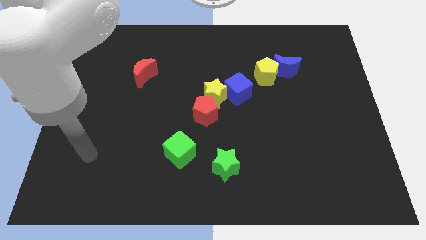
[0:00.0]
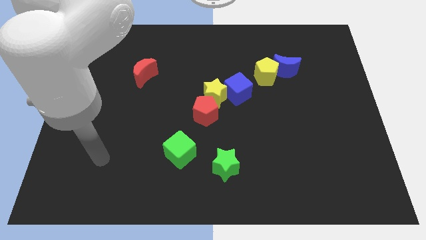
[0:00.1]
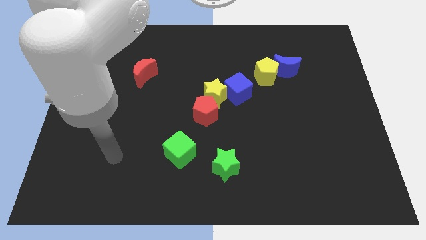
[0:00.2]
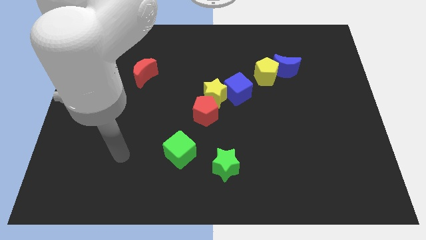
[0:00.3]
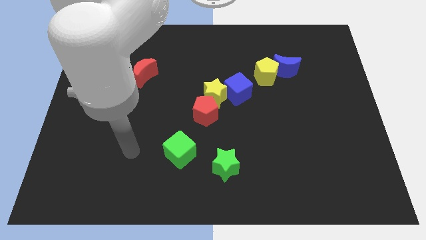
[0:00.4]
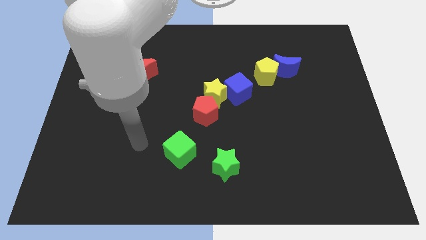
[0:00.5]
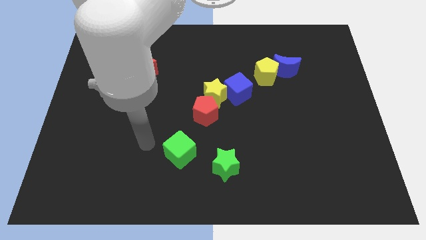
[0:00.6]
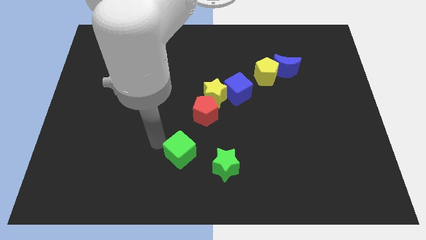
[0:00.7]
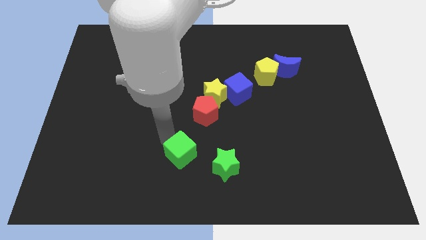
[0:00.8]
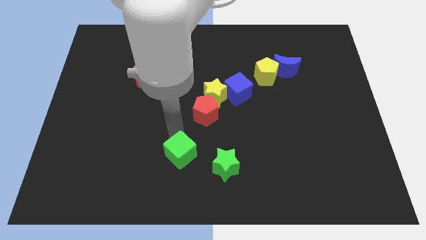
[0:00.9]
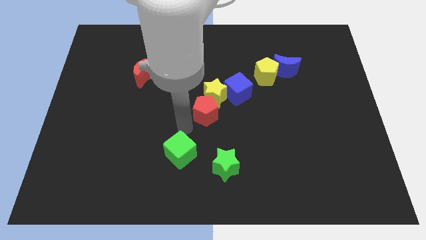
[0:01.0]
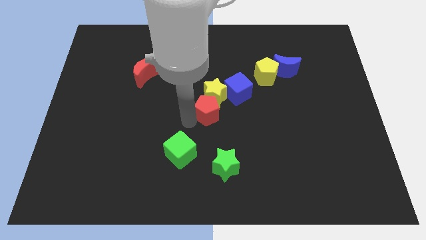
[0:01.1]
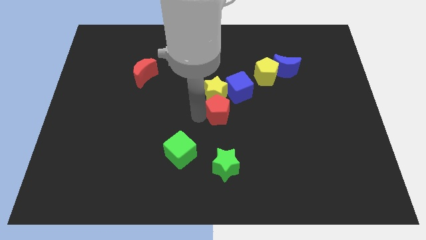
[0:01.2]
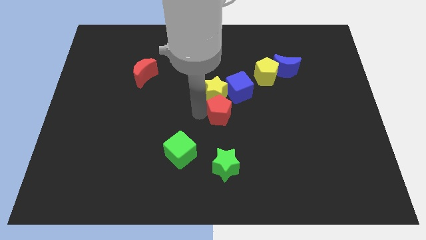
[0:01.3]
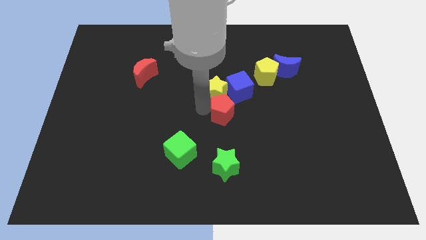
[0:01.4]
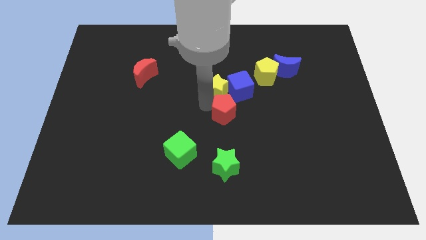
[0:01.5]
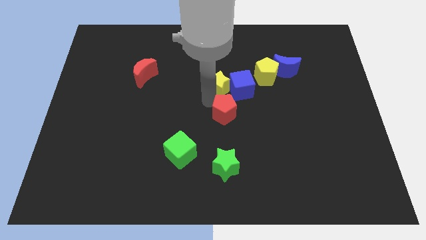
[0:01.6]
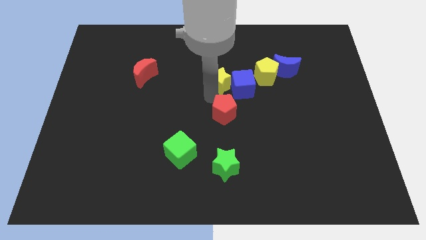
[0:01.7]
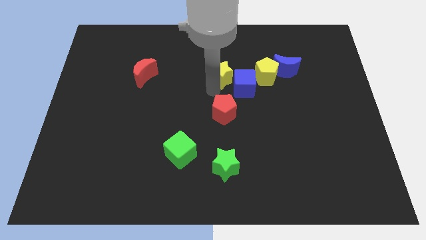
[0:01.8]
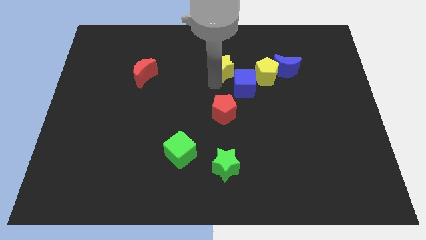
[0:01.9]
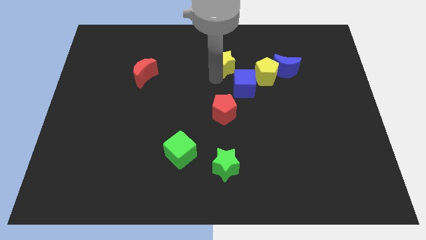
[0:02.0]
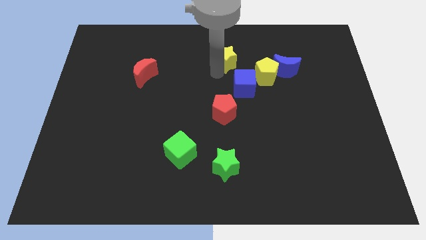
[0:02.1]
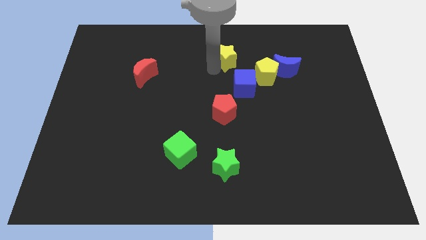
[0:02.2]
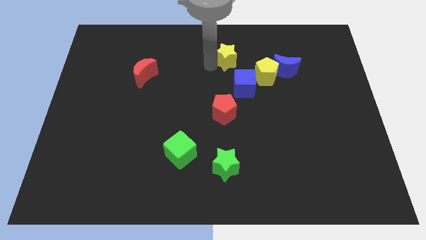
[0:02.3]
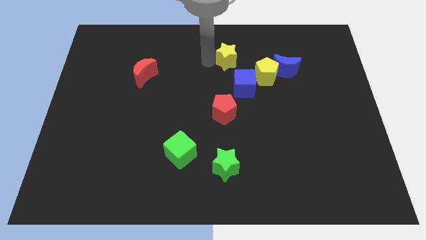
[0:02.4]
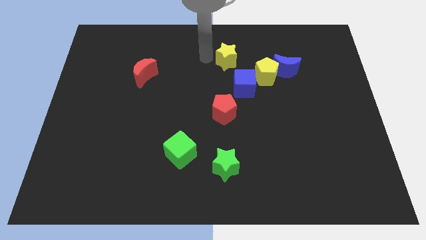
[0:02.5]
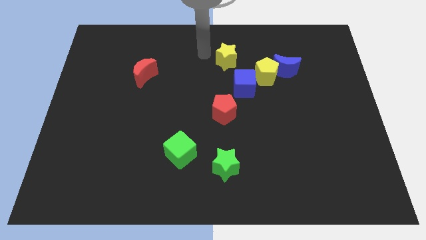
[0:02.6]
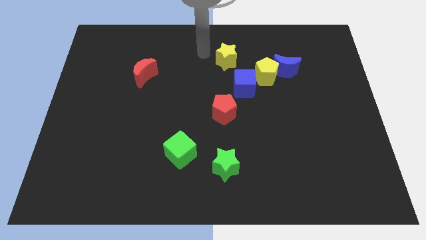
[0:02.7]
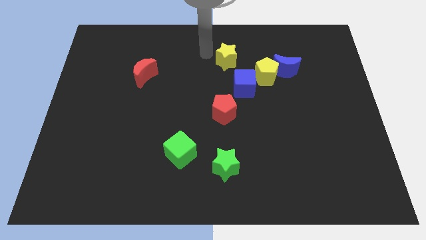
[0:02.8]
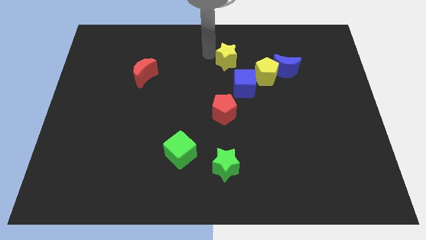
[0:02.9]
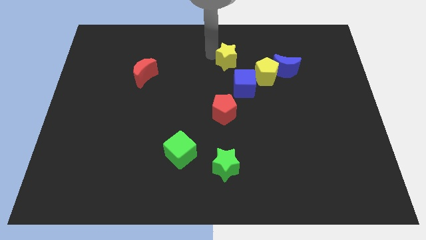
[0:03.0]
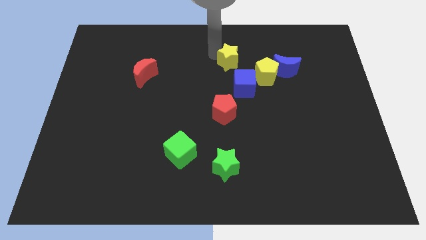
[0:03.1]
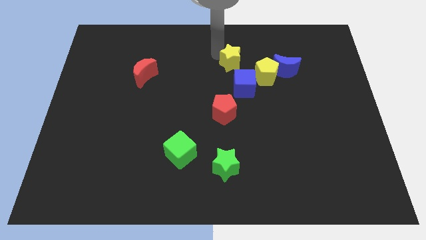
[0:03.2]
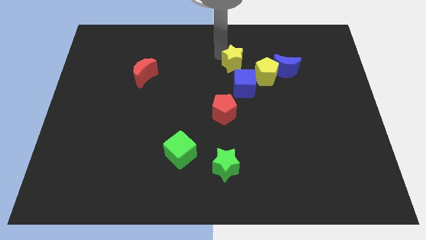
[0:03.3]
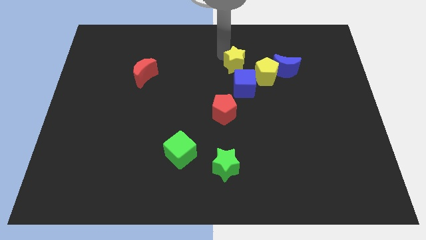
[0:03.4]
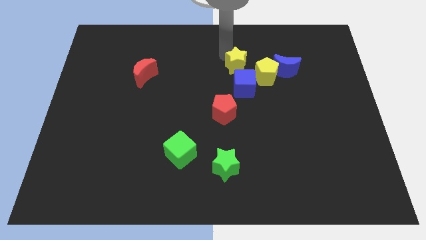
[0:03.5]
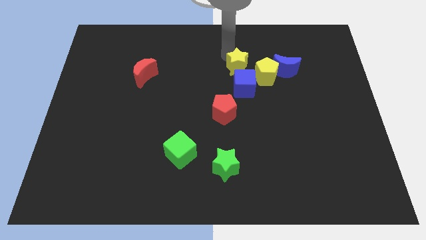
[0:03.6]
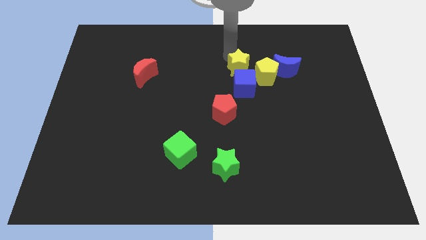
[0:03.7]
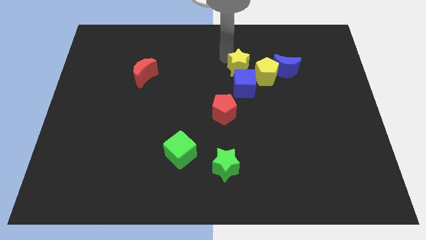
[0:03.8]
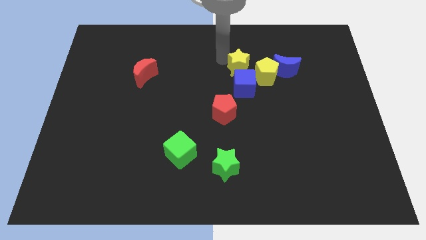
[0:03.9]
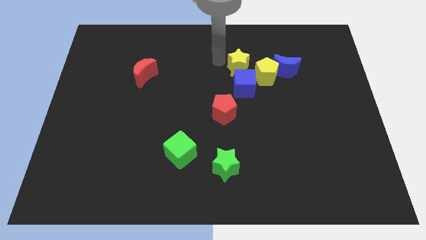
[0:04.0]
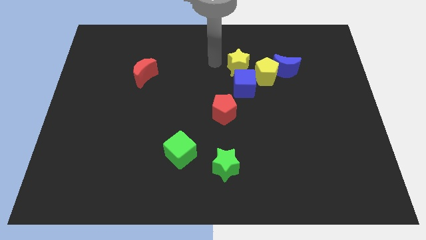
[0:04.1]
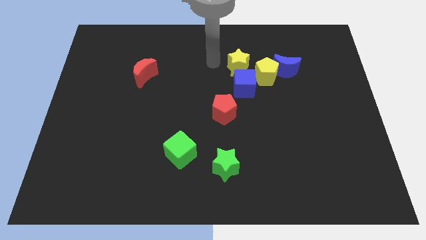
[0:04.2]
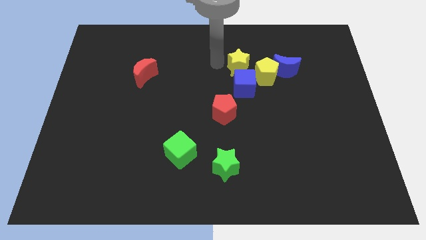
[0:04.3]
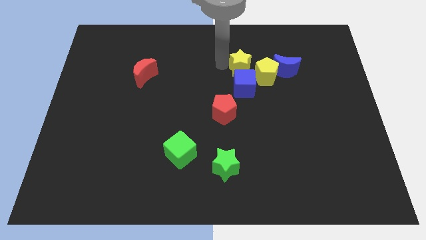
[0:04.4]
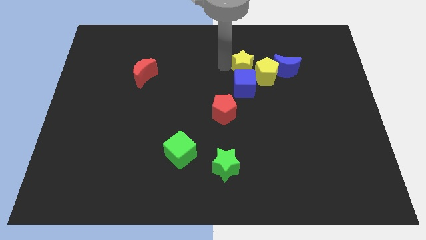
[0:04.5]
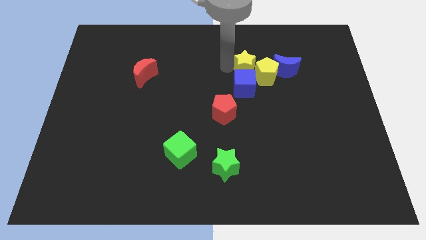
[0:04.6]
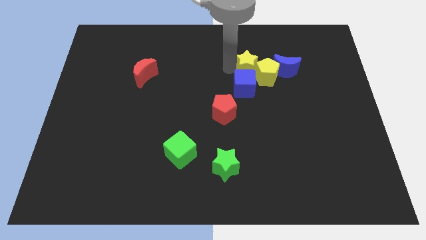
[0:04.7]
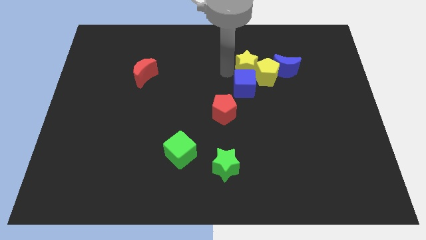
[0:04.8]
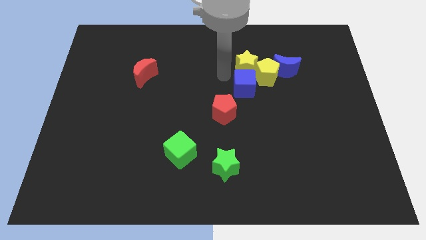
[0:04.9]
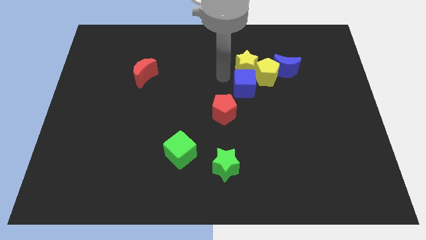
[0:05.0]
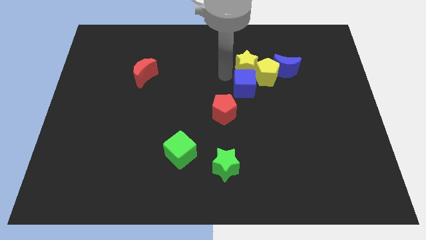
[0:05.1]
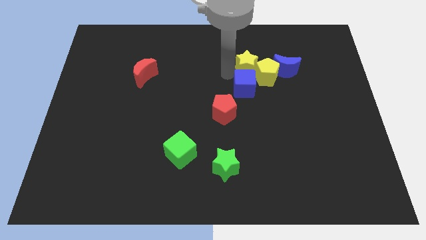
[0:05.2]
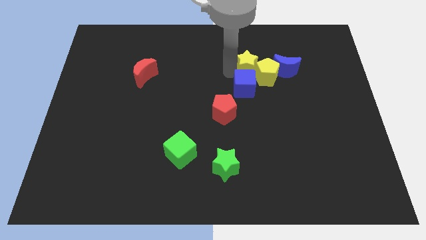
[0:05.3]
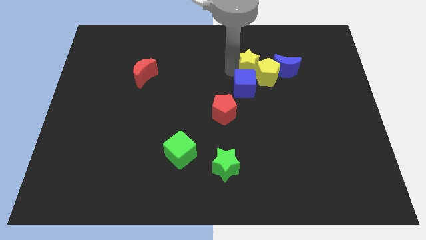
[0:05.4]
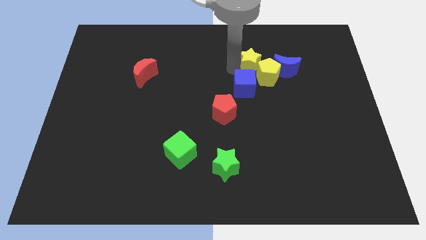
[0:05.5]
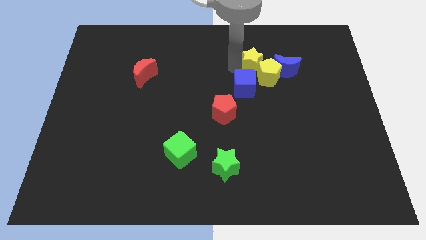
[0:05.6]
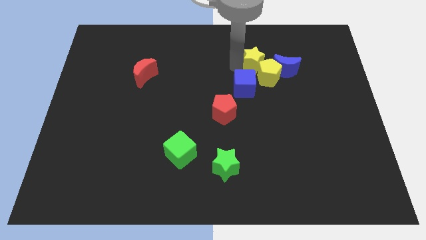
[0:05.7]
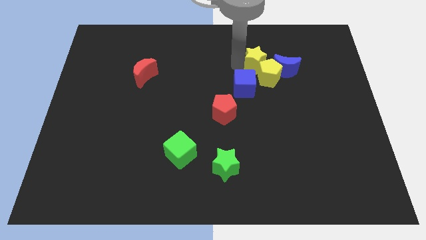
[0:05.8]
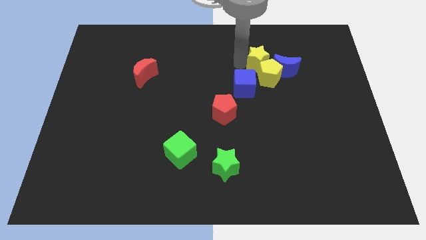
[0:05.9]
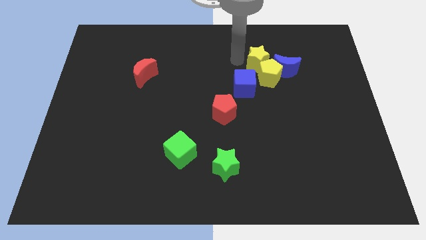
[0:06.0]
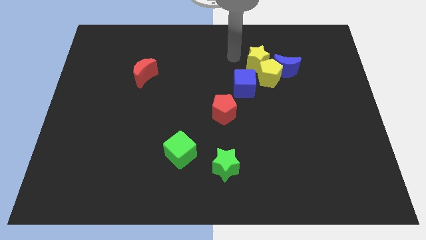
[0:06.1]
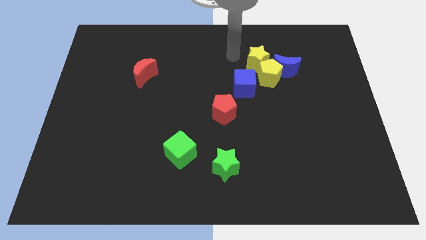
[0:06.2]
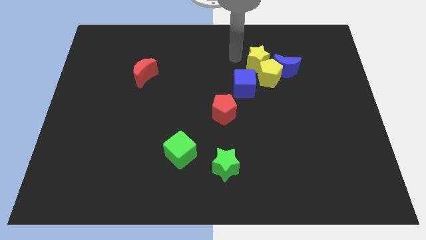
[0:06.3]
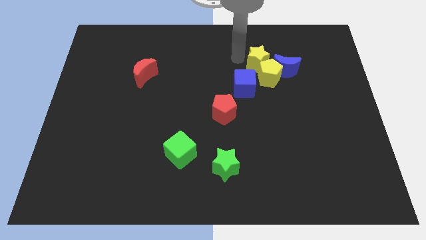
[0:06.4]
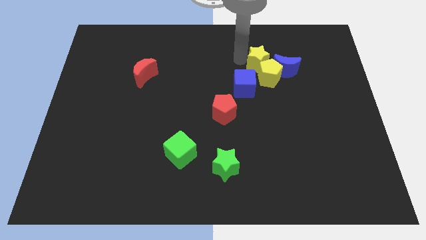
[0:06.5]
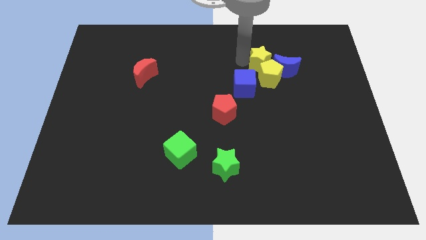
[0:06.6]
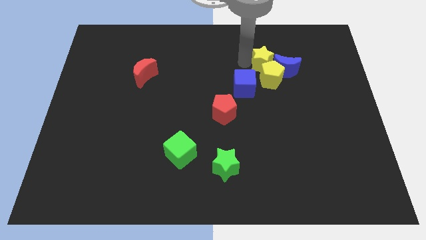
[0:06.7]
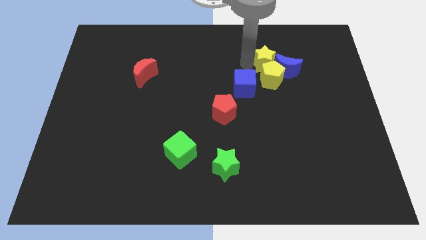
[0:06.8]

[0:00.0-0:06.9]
push the yellow star next to the blue moon

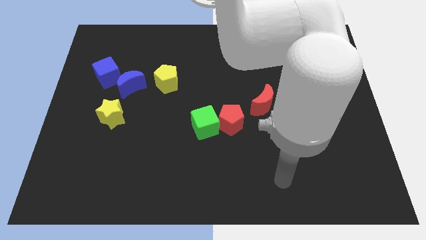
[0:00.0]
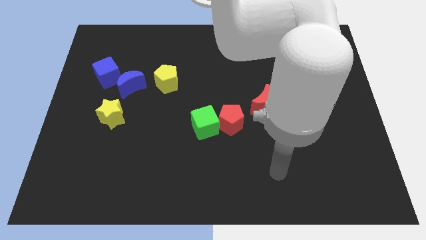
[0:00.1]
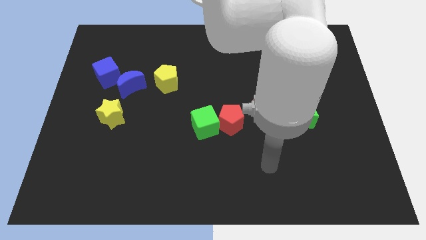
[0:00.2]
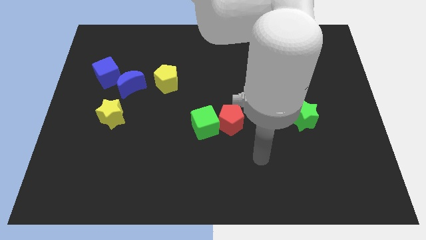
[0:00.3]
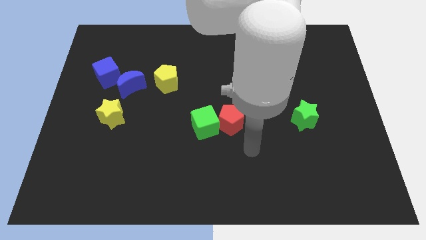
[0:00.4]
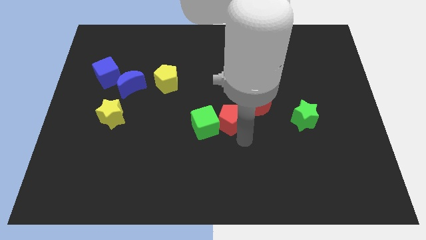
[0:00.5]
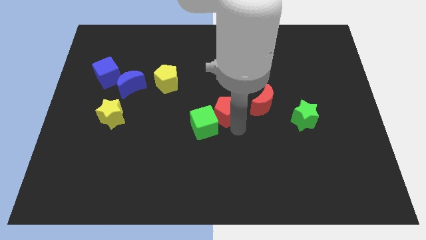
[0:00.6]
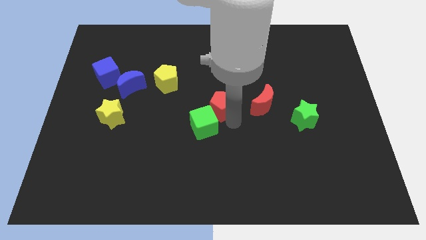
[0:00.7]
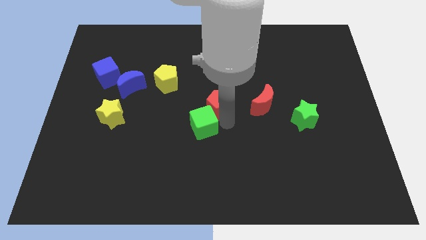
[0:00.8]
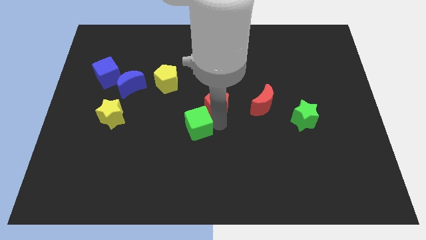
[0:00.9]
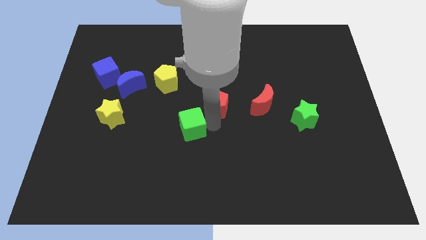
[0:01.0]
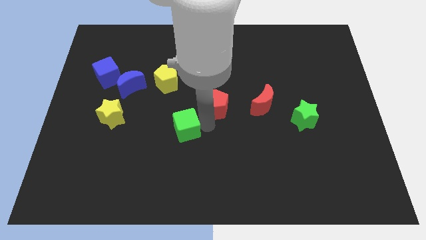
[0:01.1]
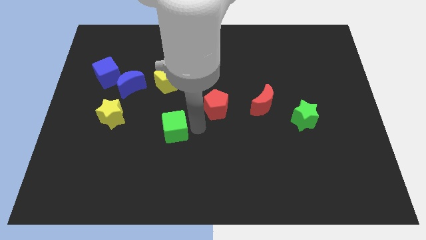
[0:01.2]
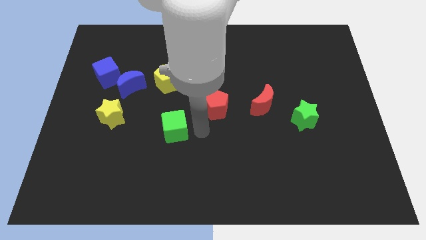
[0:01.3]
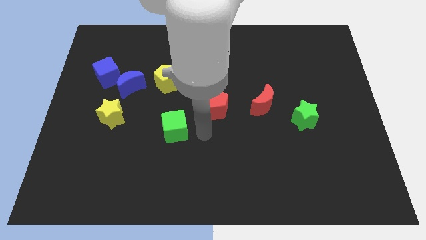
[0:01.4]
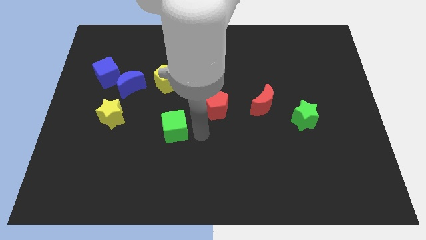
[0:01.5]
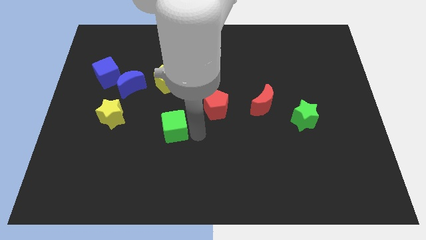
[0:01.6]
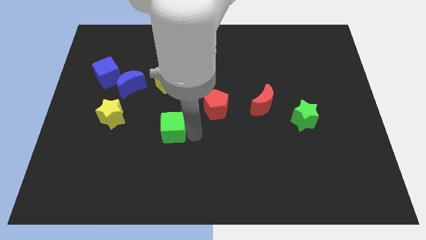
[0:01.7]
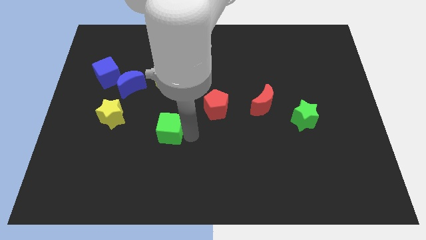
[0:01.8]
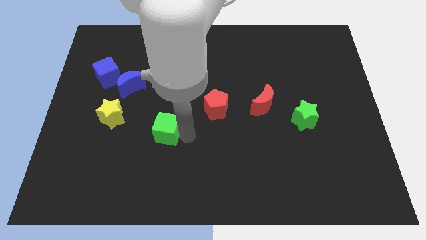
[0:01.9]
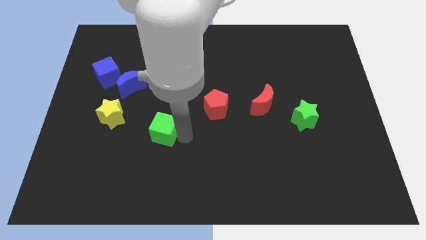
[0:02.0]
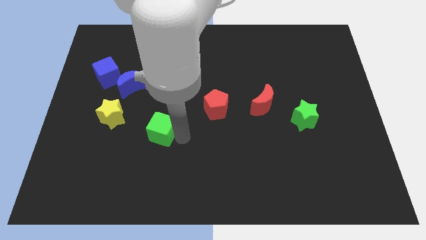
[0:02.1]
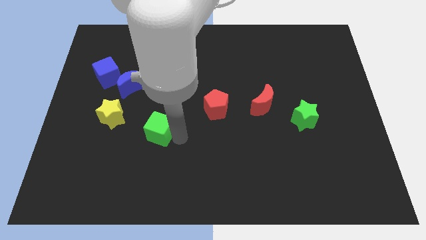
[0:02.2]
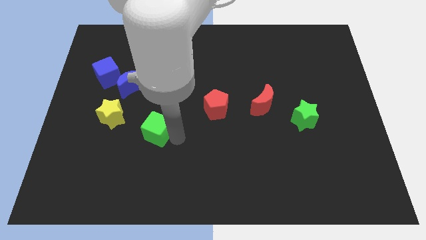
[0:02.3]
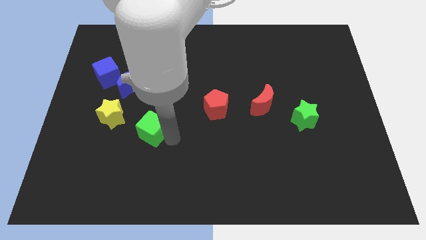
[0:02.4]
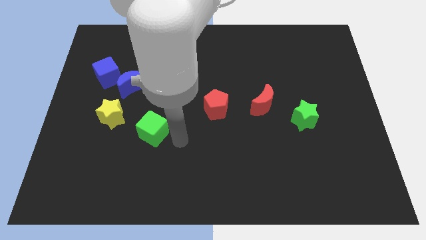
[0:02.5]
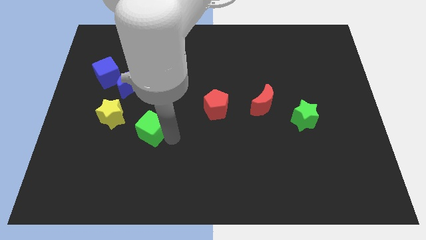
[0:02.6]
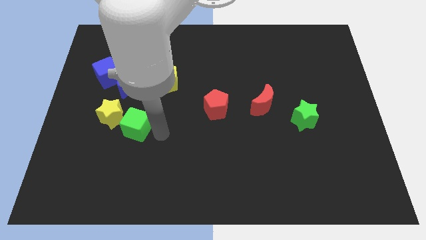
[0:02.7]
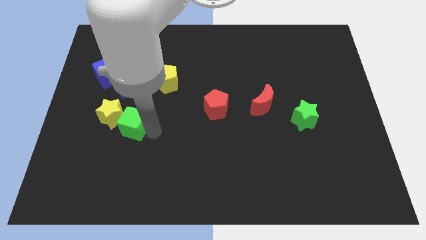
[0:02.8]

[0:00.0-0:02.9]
slide the green cube towards the yellow star
